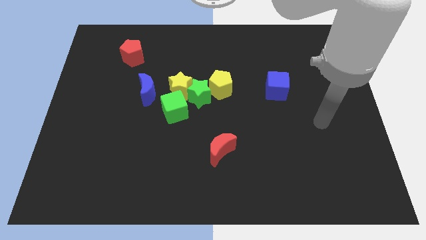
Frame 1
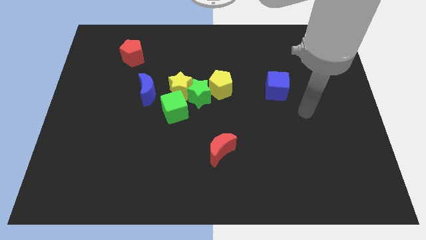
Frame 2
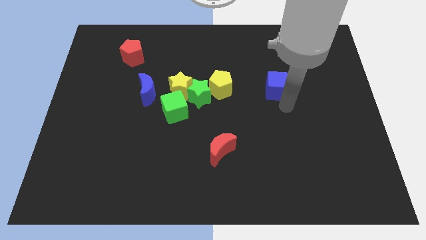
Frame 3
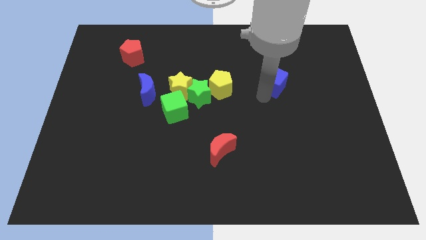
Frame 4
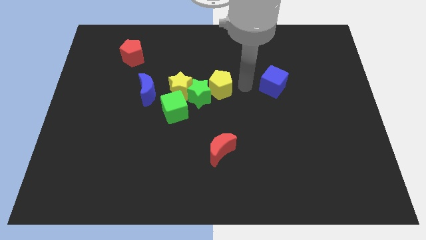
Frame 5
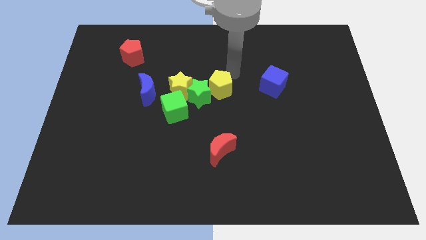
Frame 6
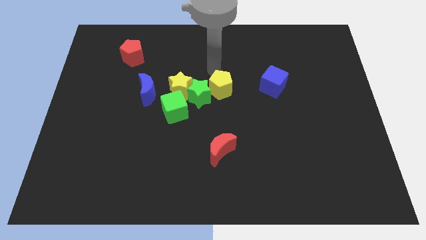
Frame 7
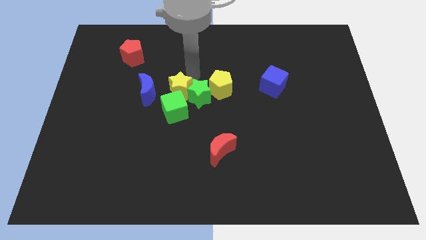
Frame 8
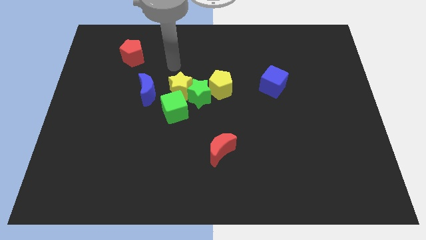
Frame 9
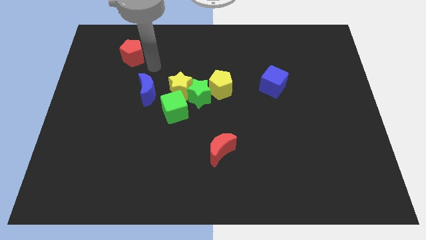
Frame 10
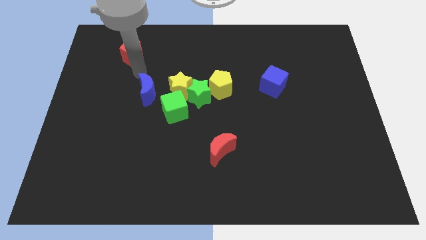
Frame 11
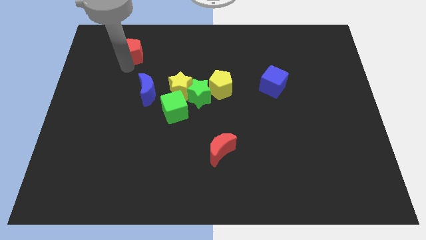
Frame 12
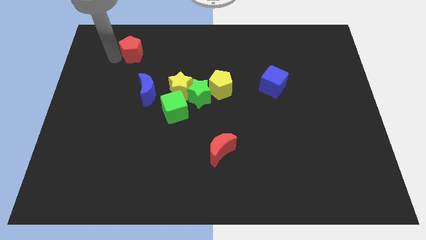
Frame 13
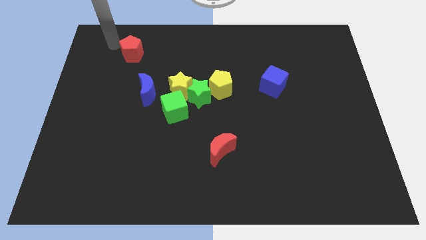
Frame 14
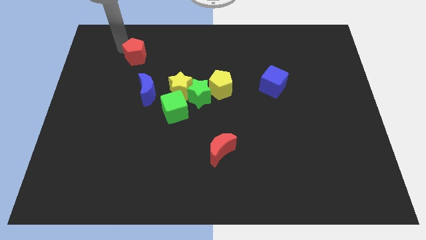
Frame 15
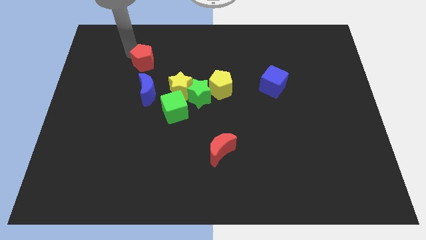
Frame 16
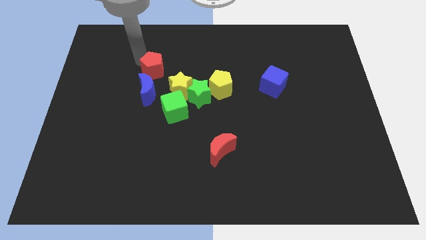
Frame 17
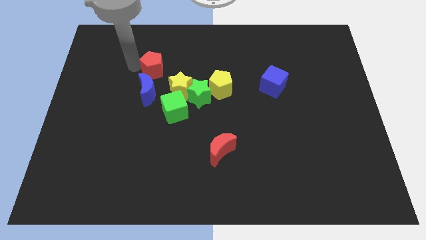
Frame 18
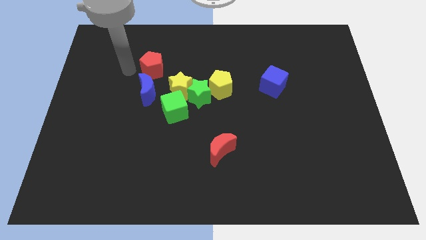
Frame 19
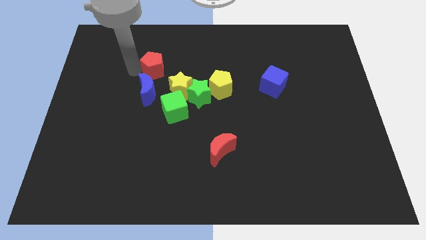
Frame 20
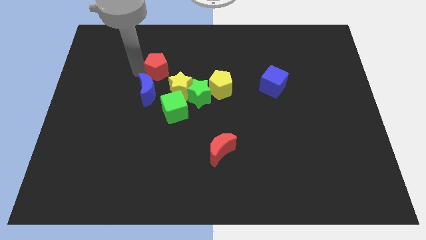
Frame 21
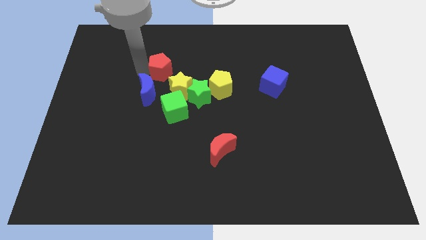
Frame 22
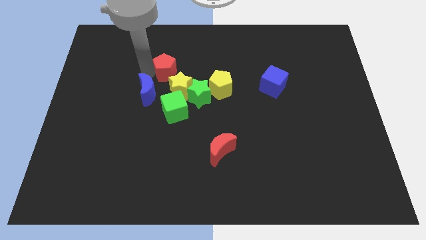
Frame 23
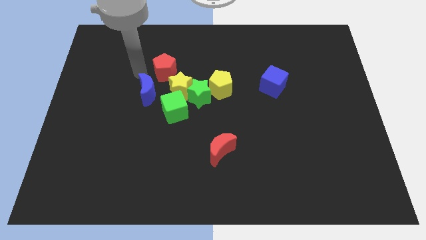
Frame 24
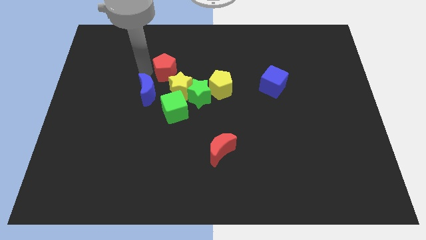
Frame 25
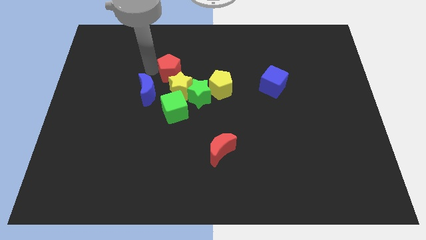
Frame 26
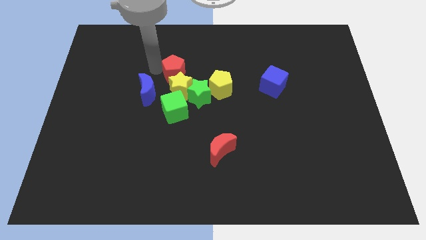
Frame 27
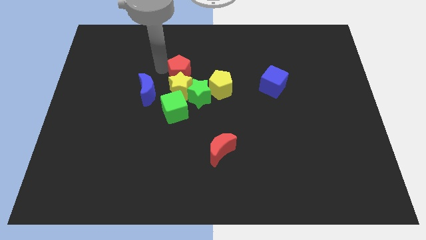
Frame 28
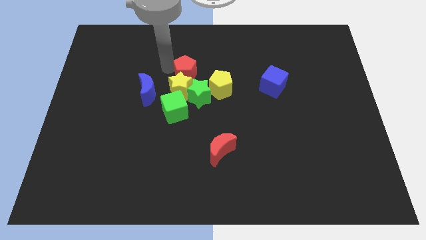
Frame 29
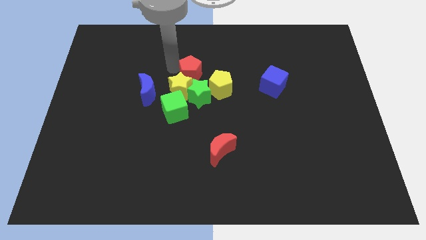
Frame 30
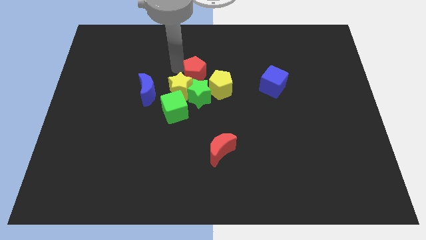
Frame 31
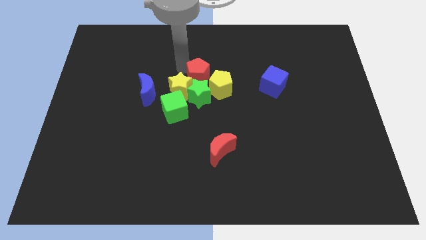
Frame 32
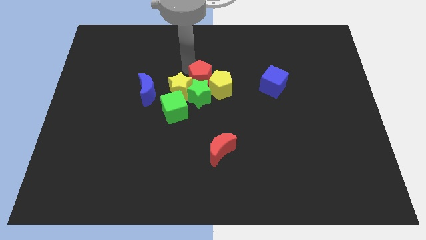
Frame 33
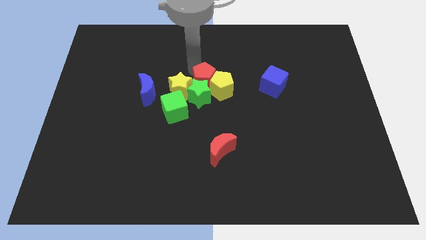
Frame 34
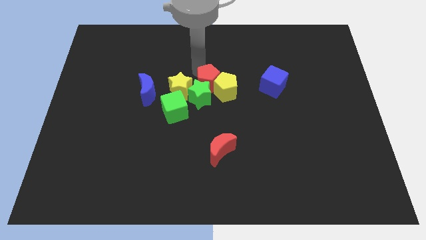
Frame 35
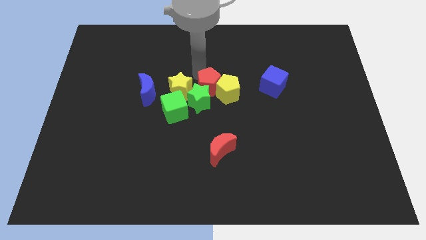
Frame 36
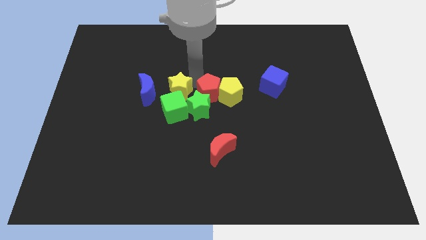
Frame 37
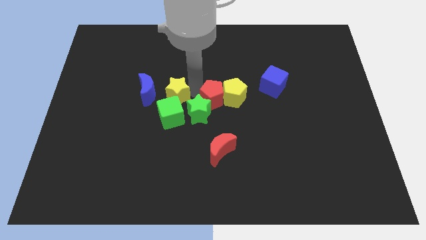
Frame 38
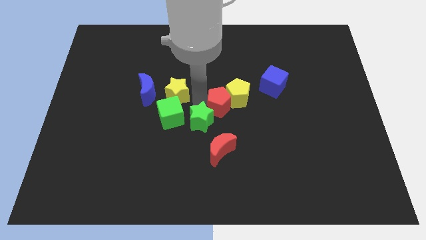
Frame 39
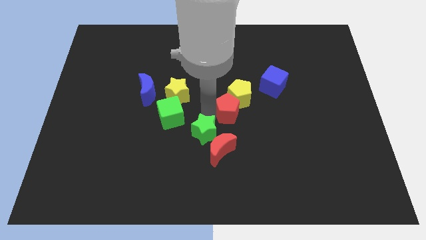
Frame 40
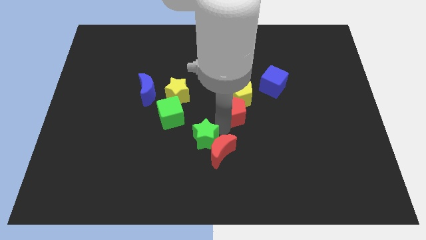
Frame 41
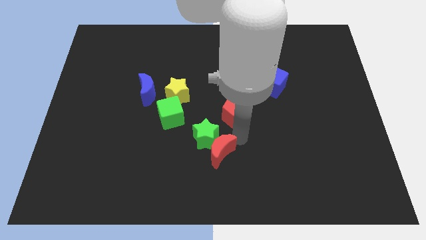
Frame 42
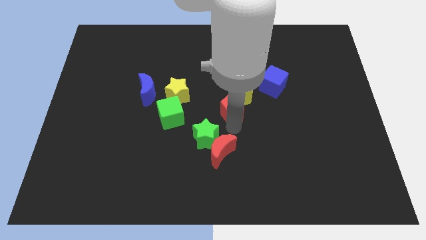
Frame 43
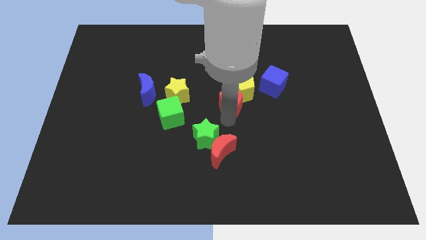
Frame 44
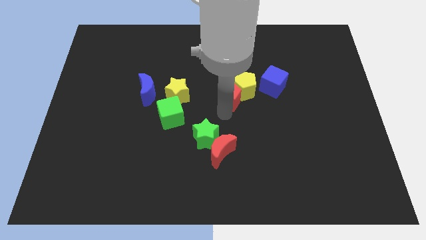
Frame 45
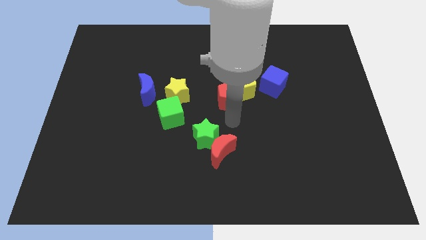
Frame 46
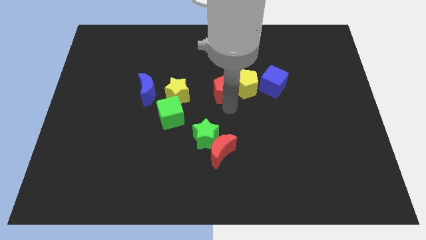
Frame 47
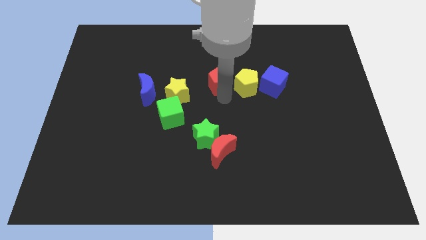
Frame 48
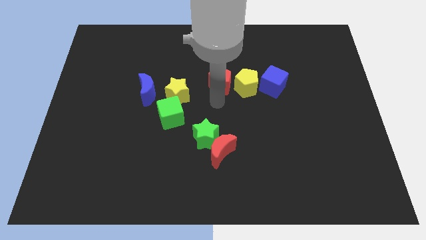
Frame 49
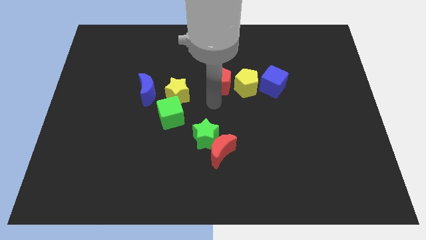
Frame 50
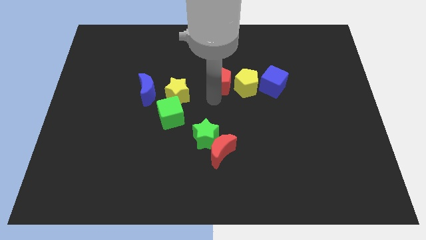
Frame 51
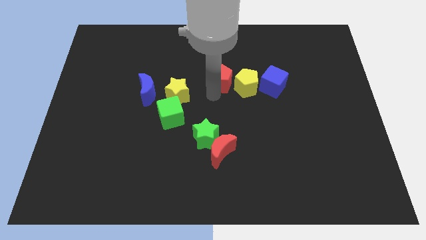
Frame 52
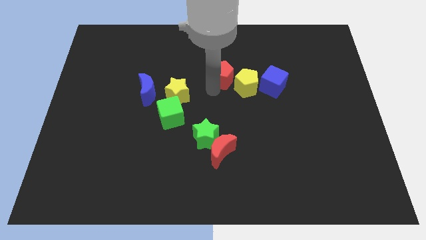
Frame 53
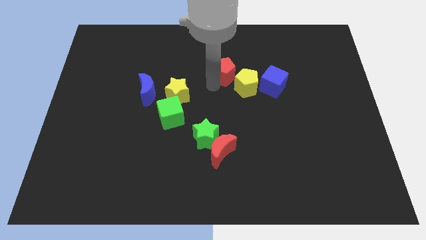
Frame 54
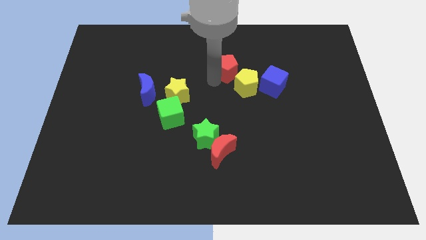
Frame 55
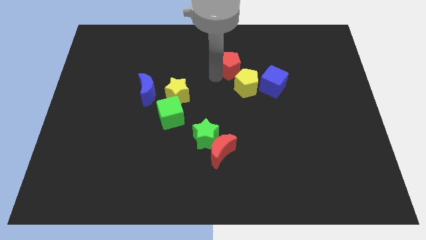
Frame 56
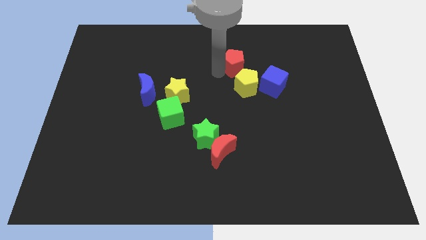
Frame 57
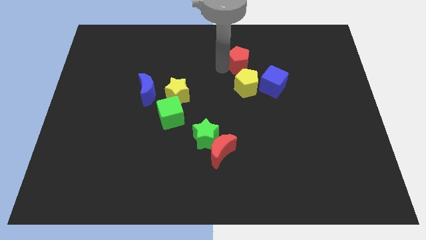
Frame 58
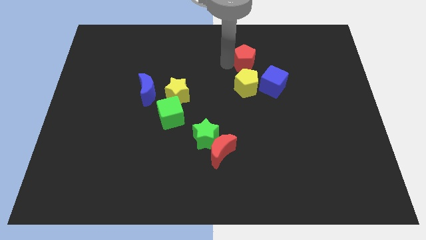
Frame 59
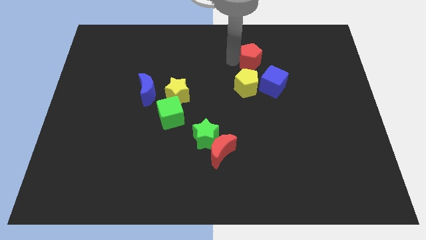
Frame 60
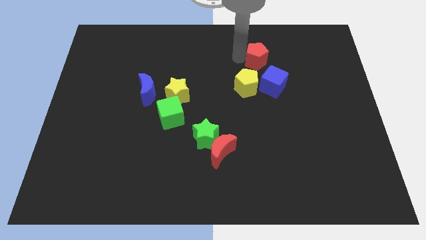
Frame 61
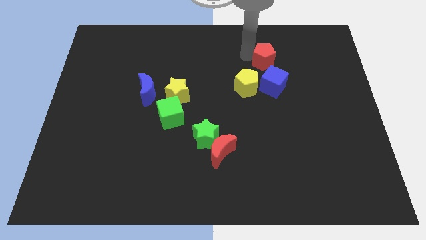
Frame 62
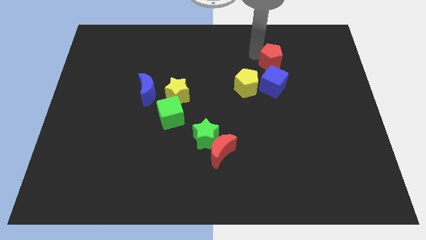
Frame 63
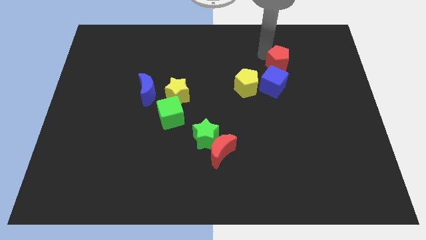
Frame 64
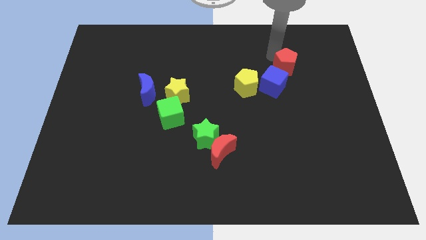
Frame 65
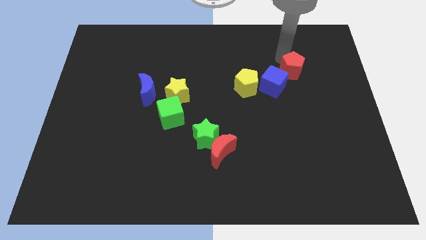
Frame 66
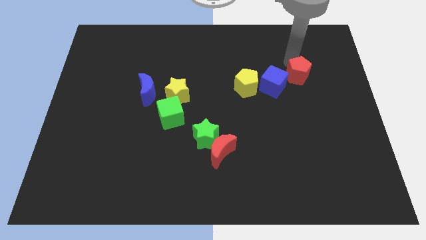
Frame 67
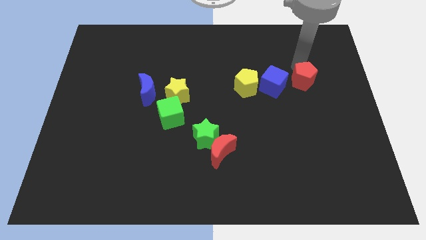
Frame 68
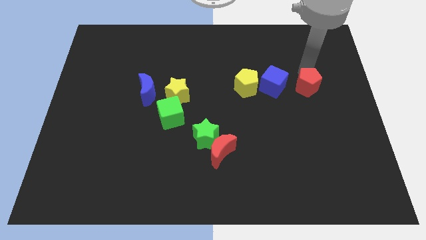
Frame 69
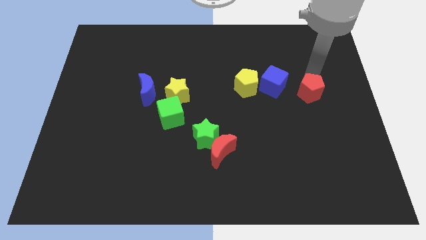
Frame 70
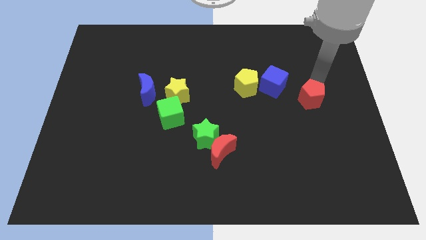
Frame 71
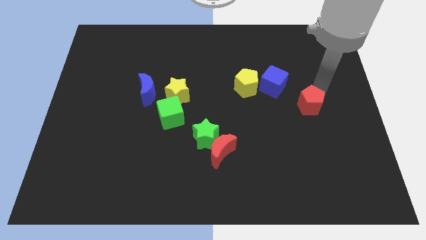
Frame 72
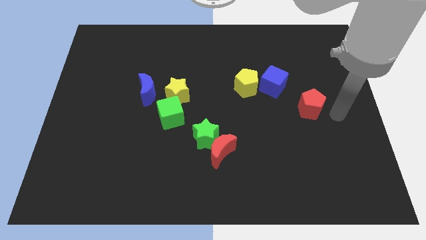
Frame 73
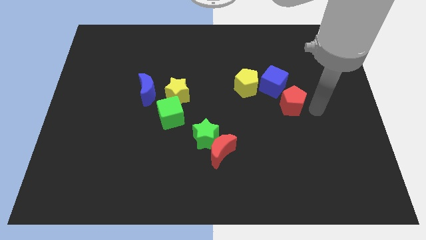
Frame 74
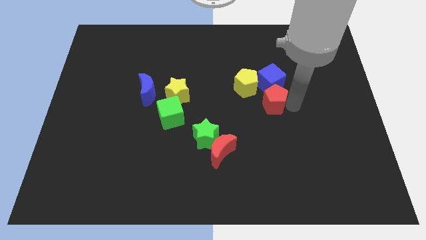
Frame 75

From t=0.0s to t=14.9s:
move the red pentagon to the bottom left side of the blue cube
